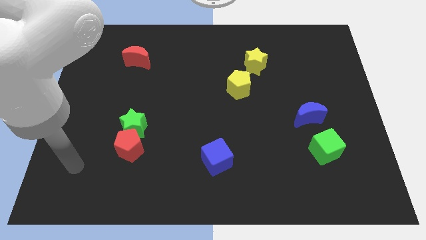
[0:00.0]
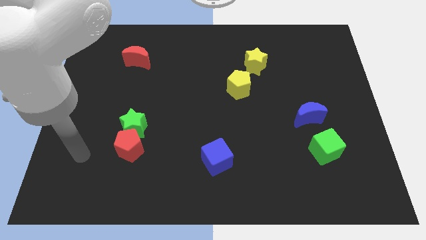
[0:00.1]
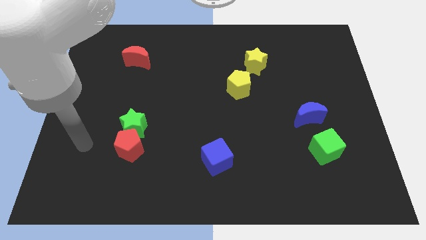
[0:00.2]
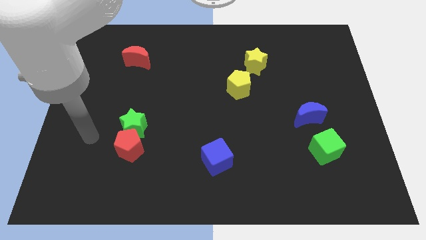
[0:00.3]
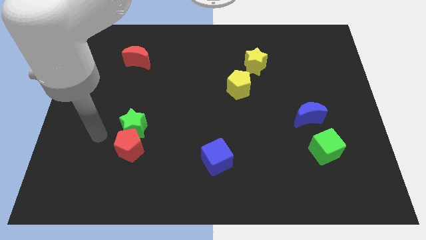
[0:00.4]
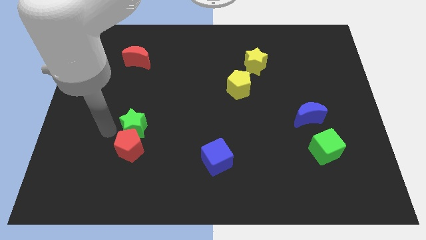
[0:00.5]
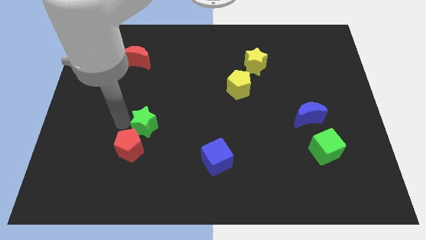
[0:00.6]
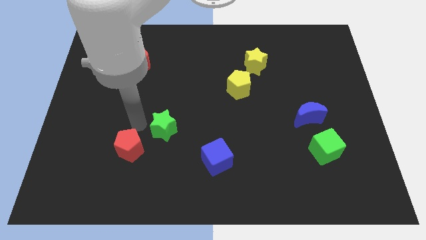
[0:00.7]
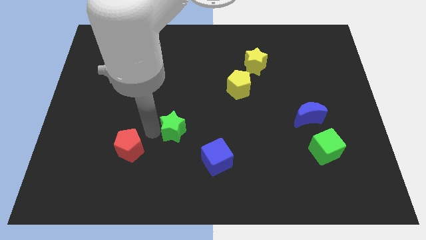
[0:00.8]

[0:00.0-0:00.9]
move the red pentagon away from the green star

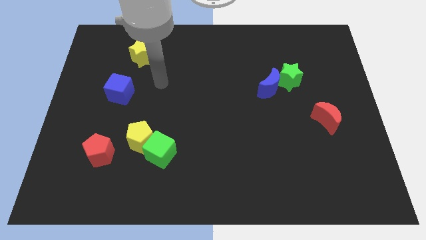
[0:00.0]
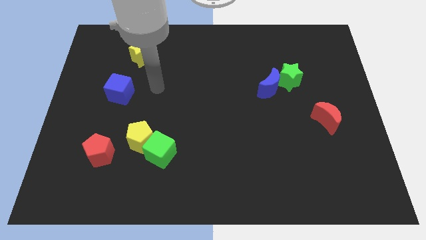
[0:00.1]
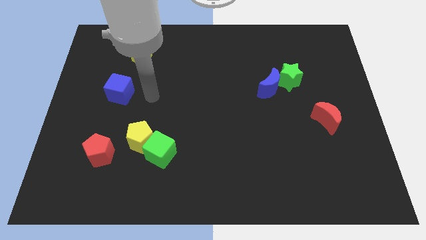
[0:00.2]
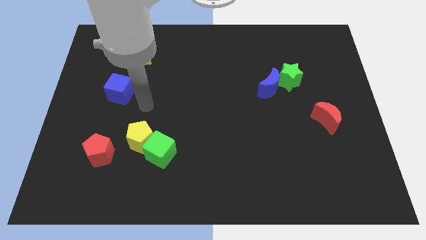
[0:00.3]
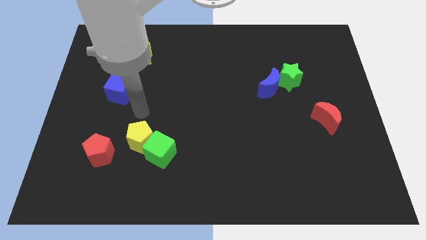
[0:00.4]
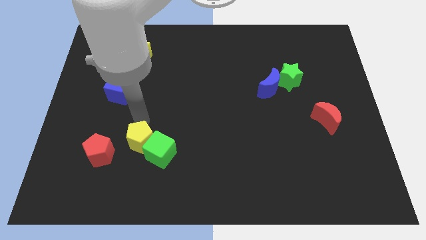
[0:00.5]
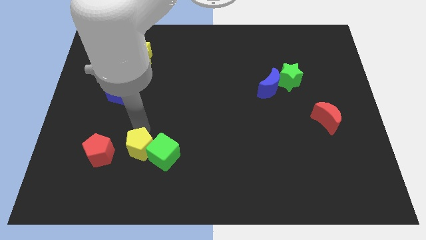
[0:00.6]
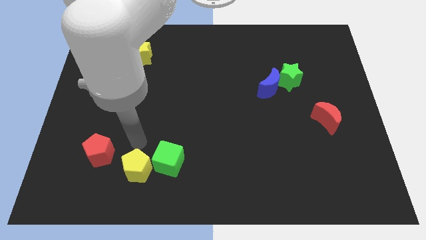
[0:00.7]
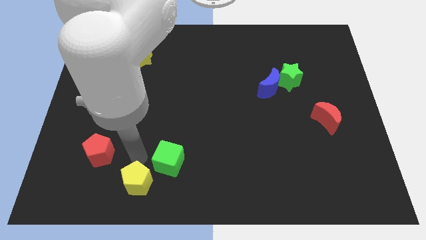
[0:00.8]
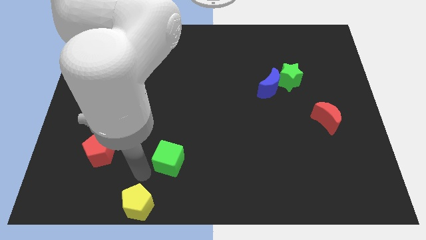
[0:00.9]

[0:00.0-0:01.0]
move the green cube away from the yellow pentagon

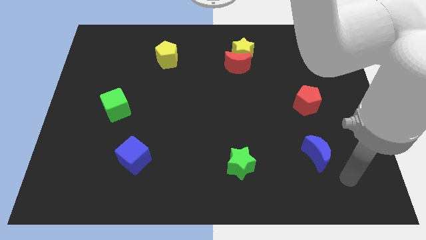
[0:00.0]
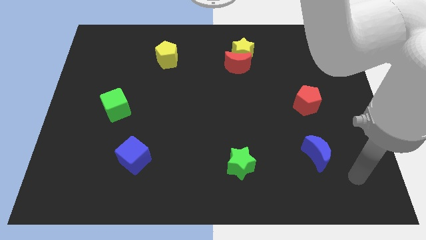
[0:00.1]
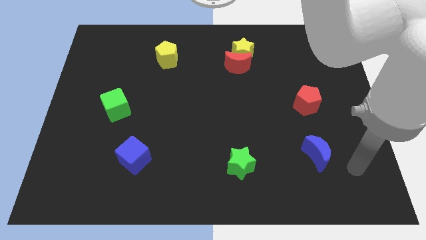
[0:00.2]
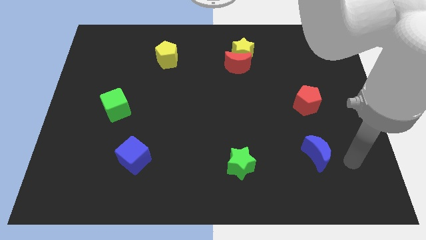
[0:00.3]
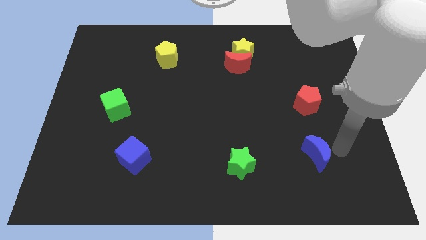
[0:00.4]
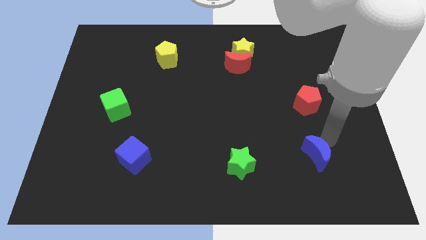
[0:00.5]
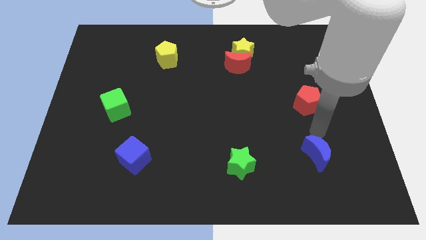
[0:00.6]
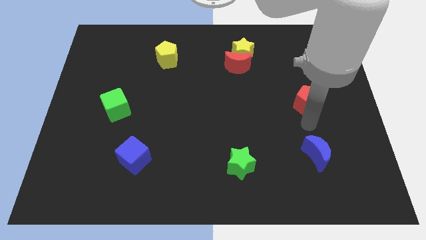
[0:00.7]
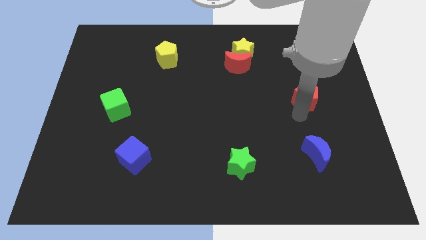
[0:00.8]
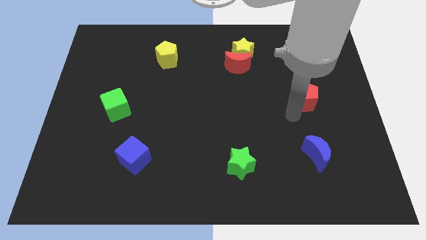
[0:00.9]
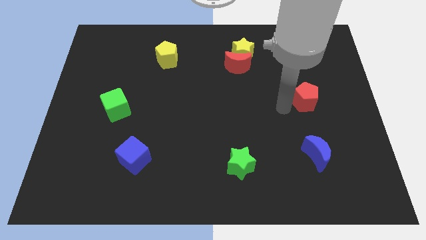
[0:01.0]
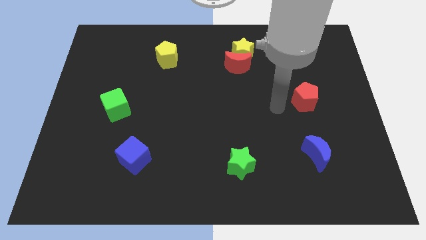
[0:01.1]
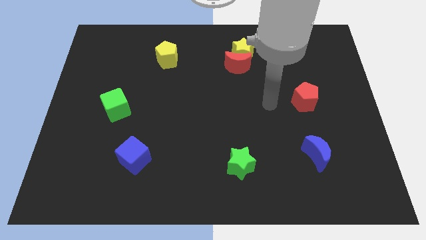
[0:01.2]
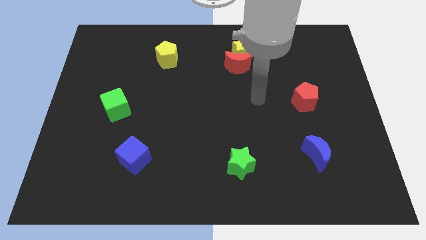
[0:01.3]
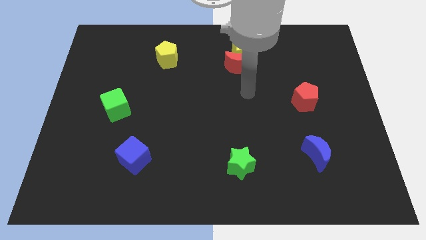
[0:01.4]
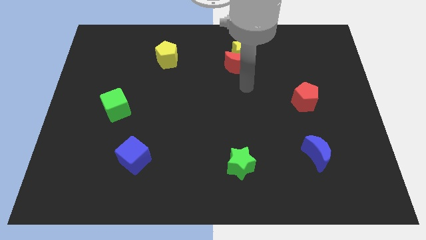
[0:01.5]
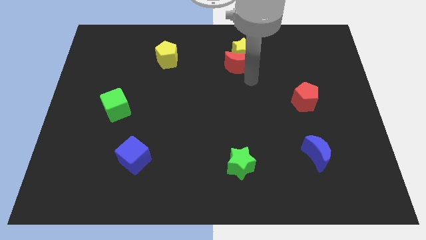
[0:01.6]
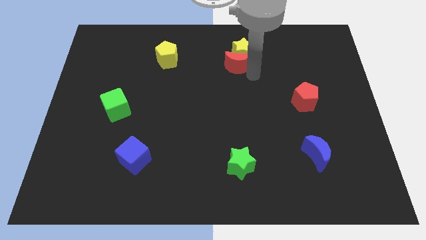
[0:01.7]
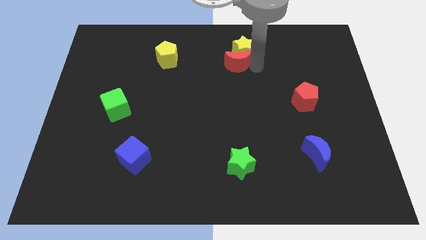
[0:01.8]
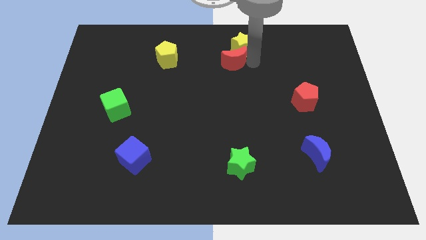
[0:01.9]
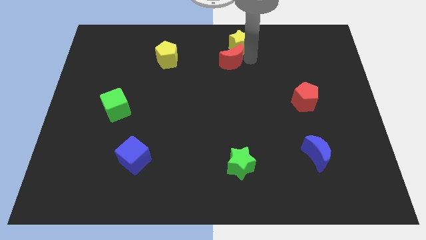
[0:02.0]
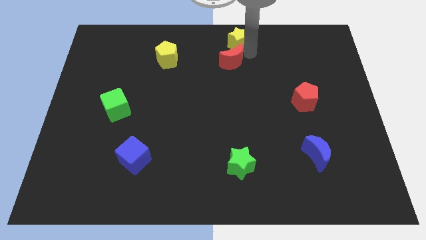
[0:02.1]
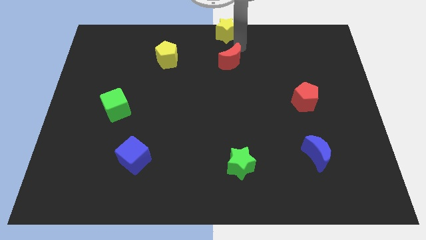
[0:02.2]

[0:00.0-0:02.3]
pull the red moon apart from the yellow star

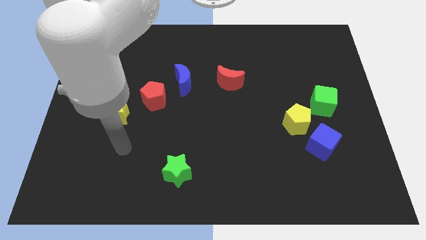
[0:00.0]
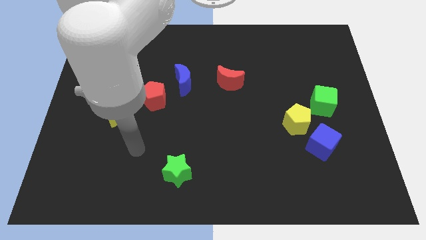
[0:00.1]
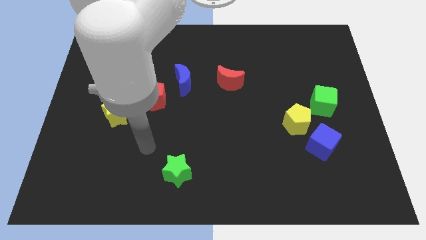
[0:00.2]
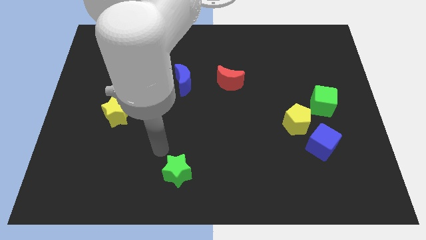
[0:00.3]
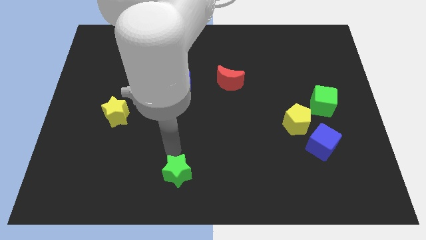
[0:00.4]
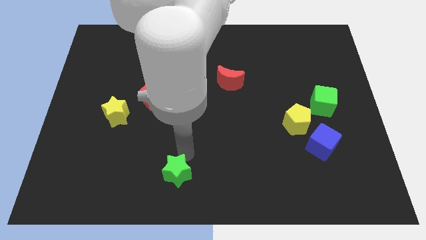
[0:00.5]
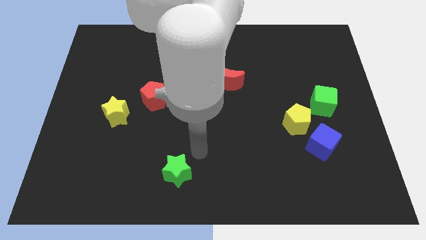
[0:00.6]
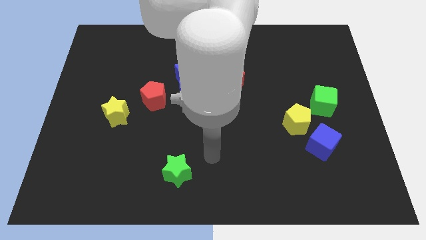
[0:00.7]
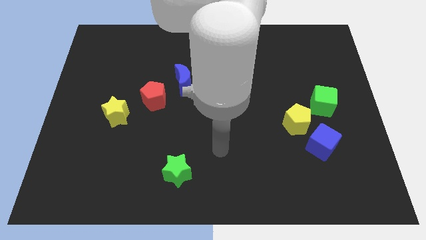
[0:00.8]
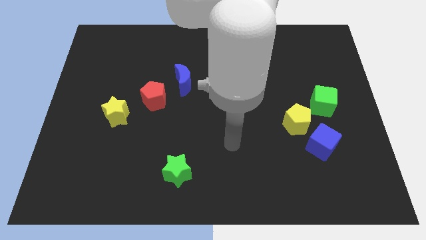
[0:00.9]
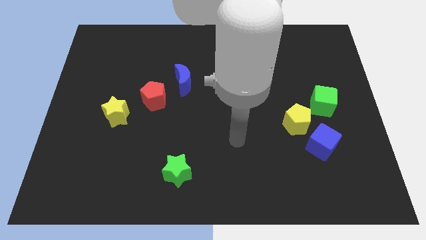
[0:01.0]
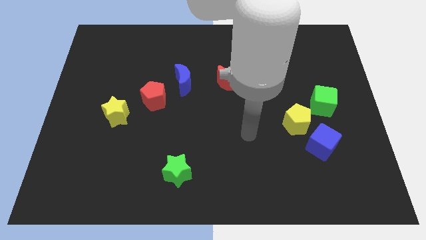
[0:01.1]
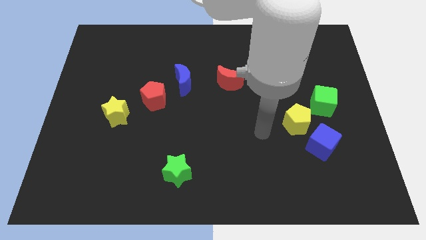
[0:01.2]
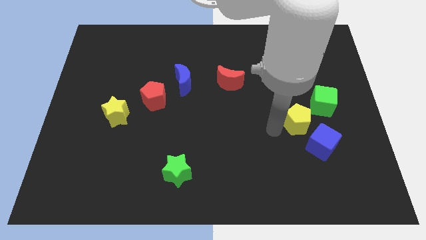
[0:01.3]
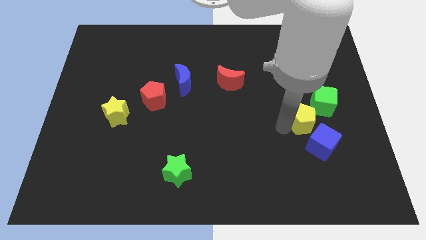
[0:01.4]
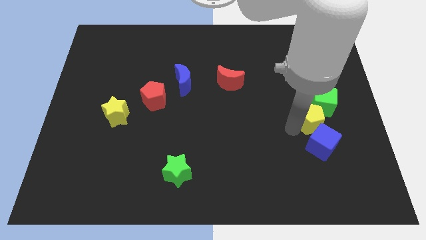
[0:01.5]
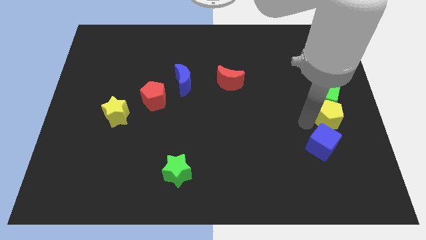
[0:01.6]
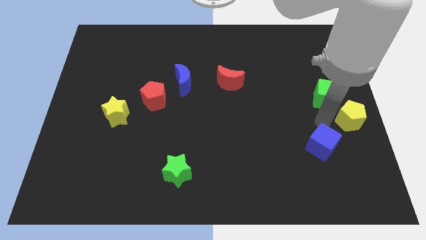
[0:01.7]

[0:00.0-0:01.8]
move the blue cube away from the yellow pentagon

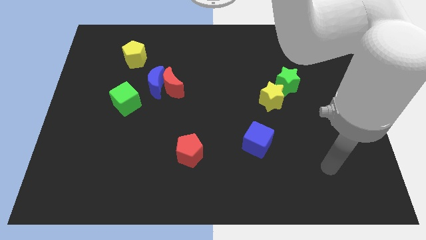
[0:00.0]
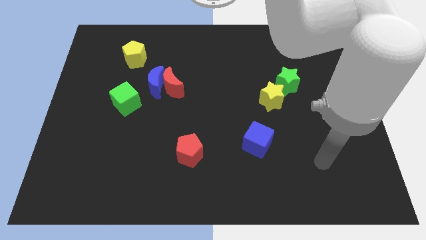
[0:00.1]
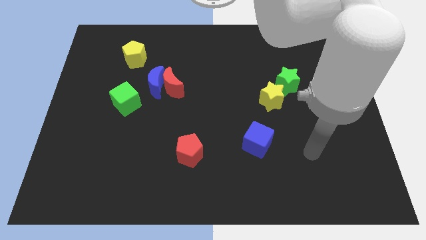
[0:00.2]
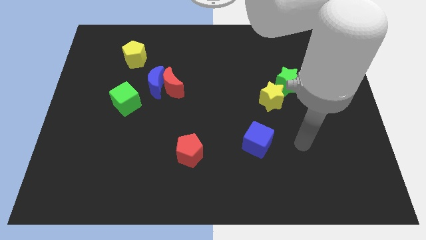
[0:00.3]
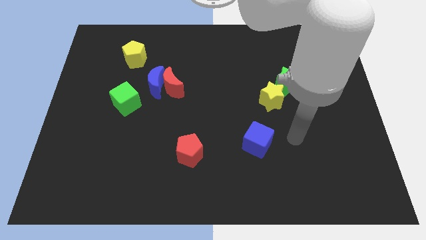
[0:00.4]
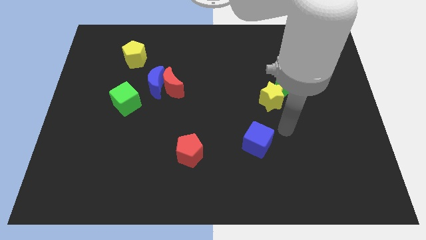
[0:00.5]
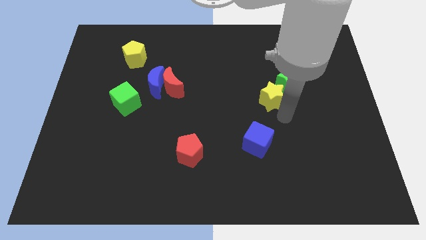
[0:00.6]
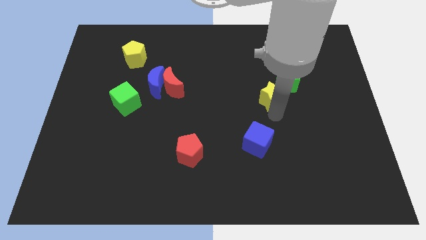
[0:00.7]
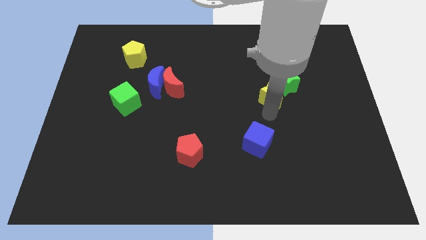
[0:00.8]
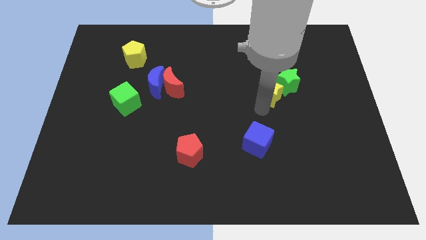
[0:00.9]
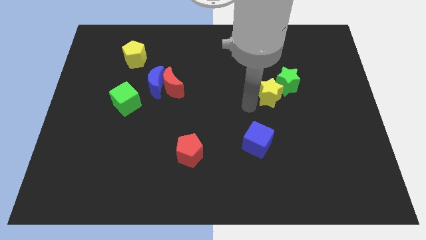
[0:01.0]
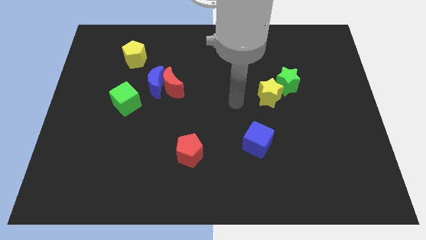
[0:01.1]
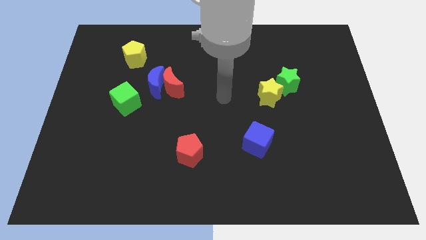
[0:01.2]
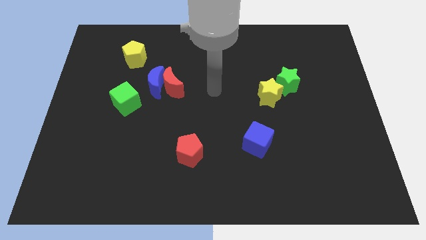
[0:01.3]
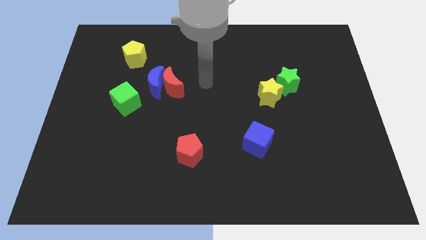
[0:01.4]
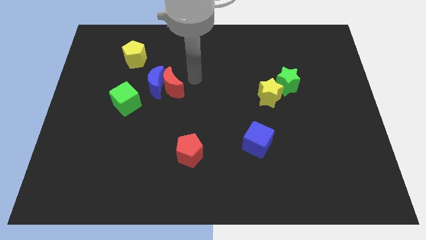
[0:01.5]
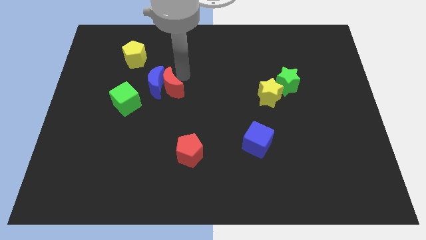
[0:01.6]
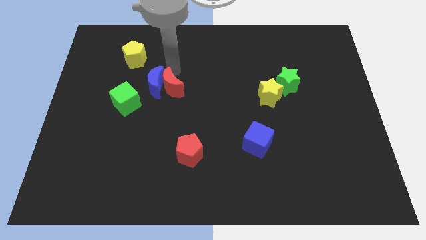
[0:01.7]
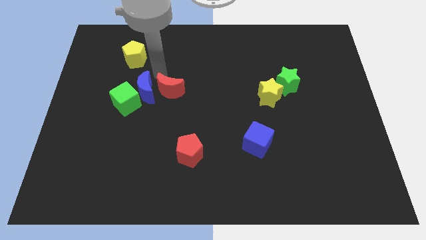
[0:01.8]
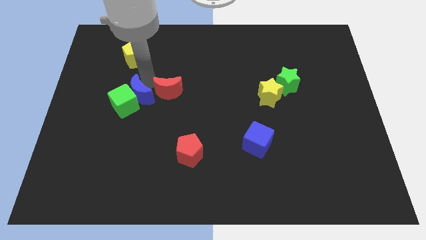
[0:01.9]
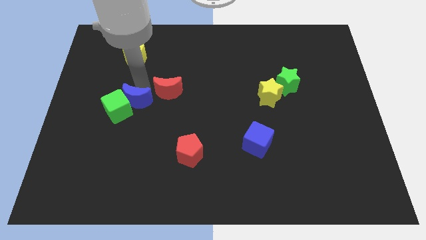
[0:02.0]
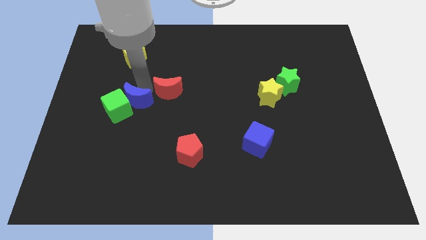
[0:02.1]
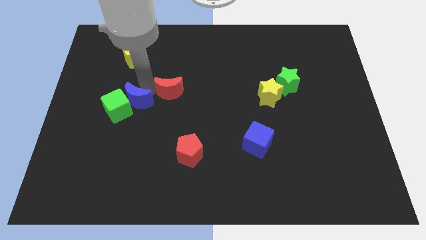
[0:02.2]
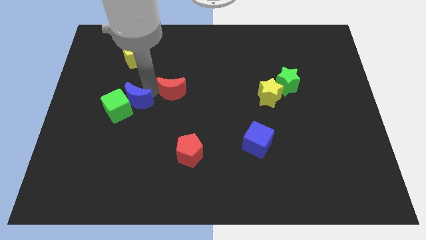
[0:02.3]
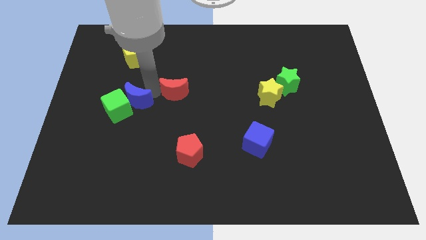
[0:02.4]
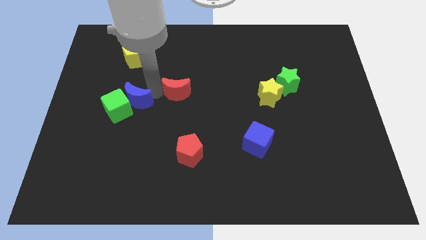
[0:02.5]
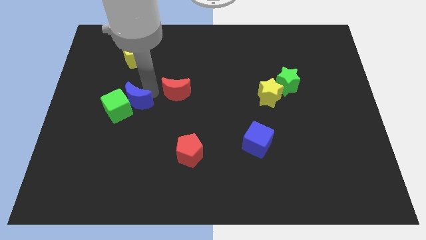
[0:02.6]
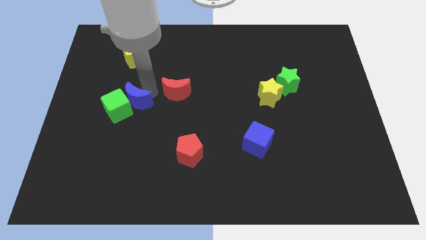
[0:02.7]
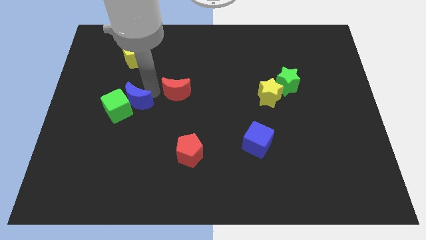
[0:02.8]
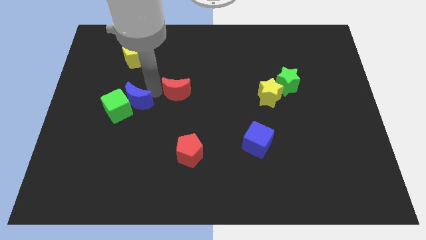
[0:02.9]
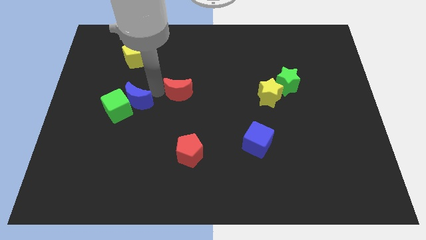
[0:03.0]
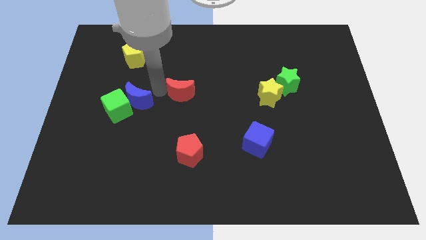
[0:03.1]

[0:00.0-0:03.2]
separate the red moon from the blue moon
